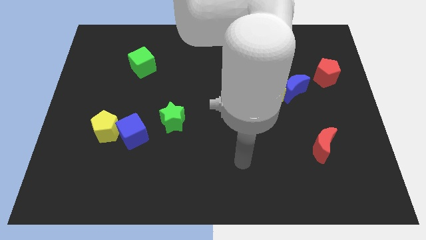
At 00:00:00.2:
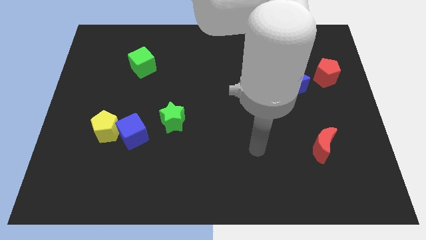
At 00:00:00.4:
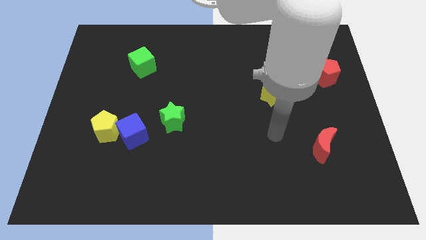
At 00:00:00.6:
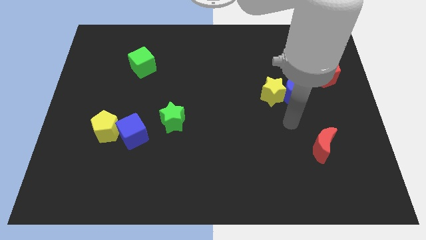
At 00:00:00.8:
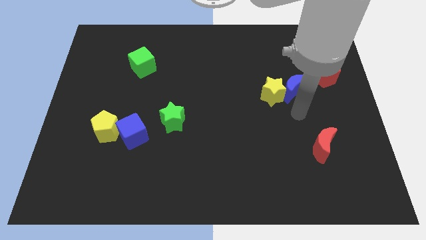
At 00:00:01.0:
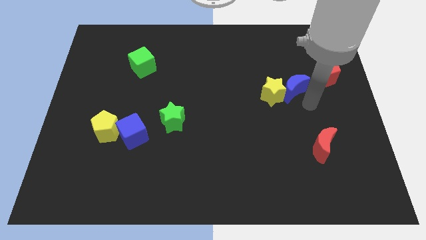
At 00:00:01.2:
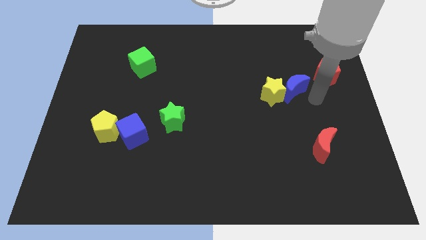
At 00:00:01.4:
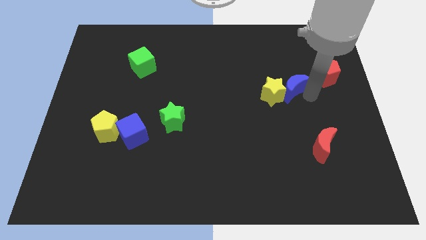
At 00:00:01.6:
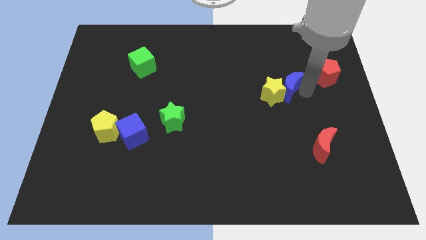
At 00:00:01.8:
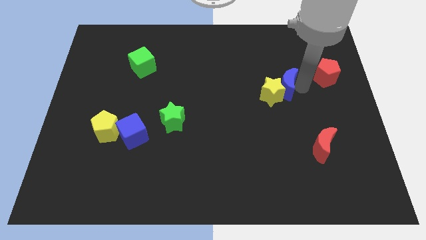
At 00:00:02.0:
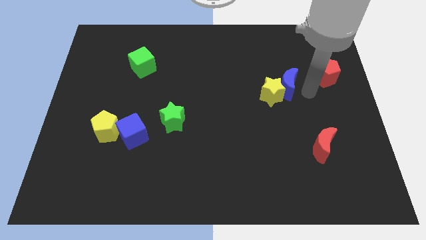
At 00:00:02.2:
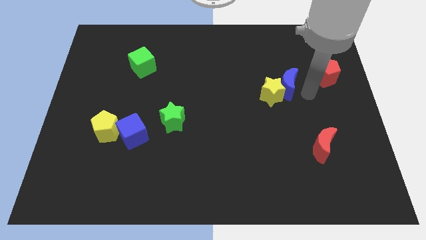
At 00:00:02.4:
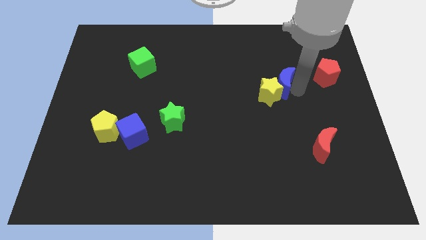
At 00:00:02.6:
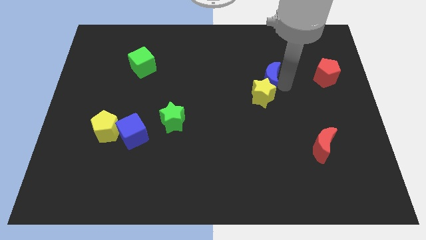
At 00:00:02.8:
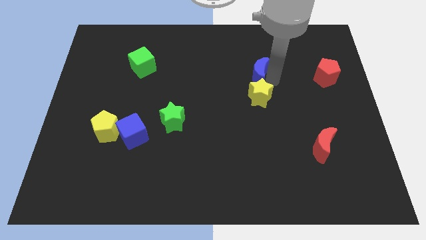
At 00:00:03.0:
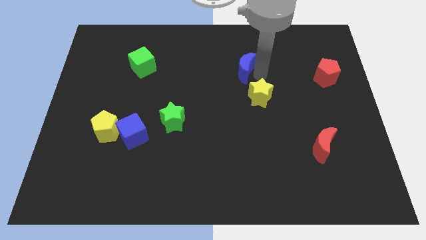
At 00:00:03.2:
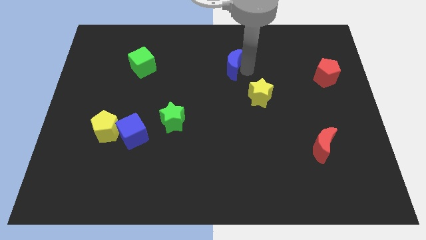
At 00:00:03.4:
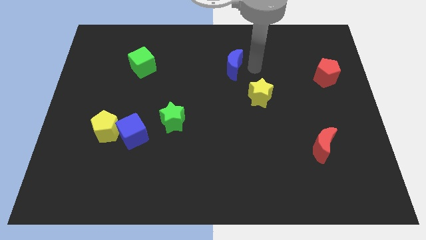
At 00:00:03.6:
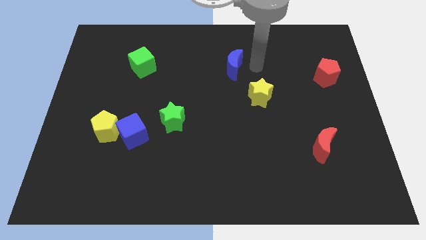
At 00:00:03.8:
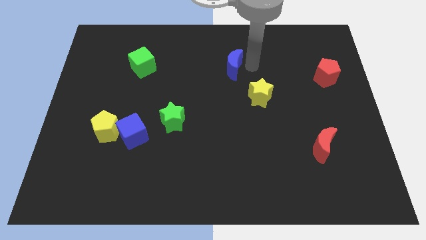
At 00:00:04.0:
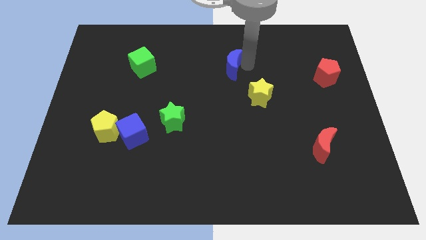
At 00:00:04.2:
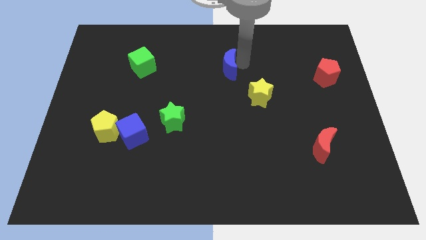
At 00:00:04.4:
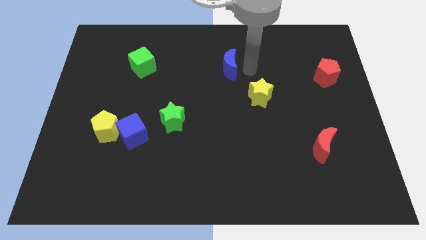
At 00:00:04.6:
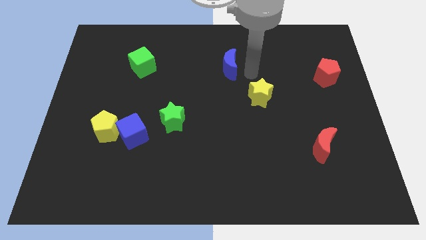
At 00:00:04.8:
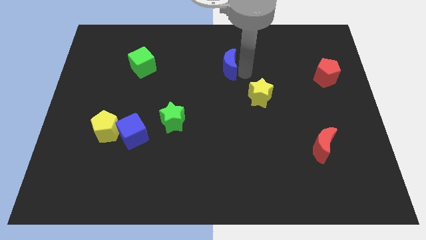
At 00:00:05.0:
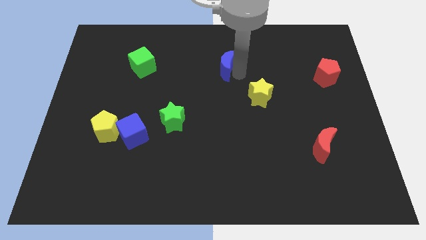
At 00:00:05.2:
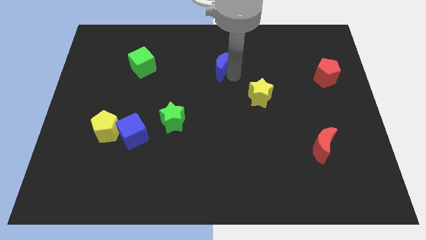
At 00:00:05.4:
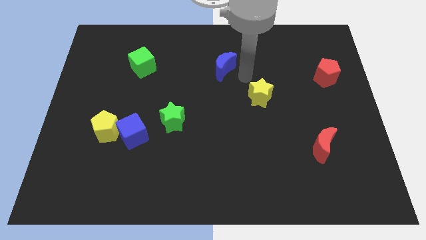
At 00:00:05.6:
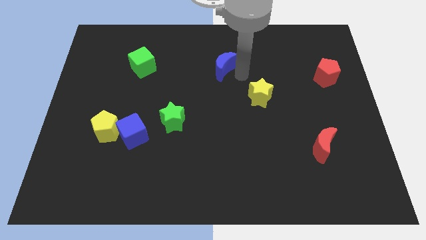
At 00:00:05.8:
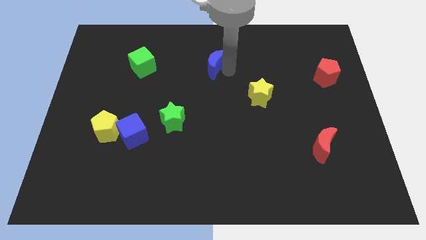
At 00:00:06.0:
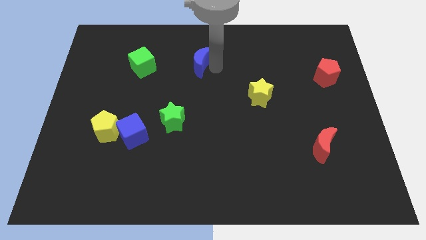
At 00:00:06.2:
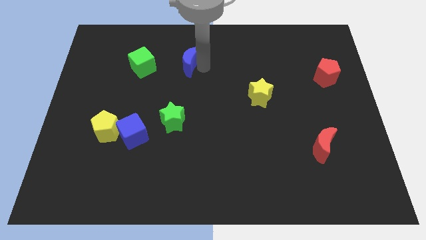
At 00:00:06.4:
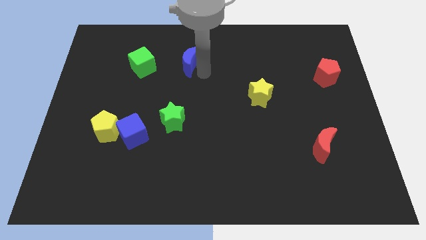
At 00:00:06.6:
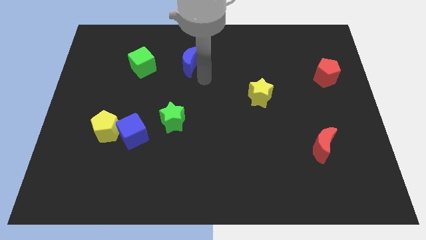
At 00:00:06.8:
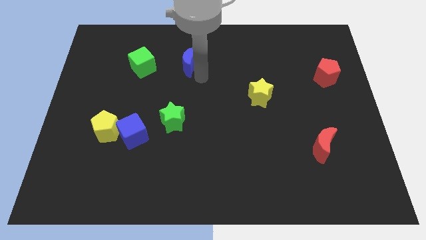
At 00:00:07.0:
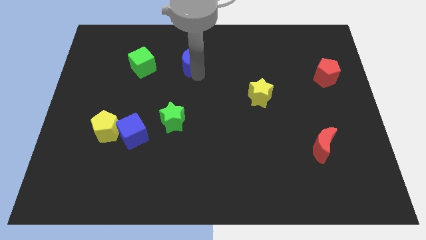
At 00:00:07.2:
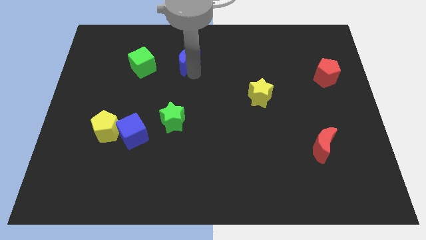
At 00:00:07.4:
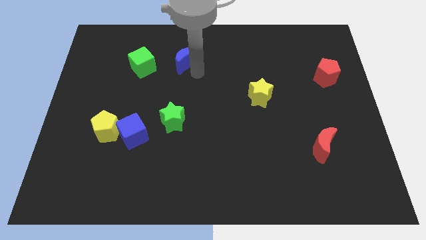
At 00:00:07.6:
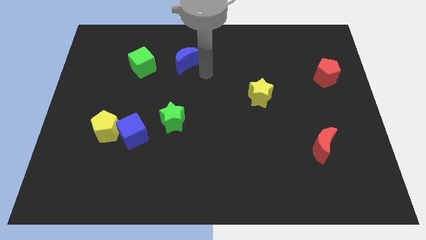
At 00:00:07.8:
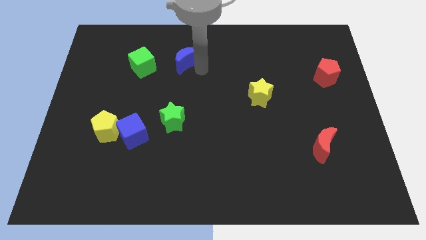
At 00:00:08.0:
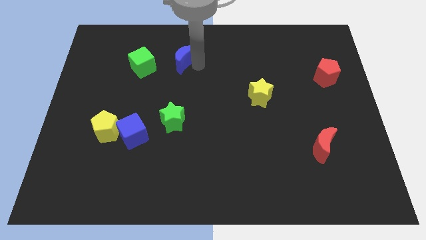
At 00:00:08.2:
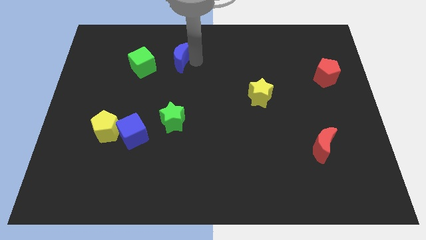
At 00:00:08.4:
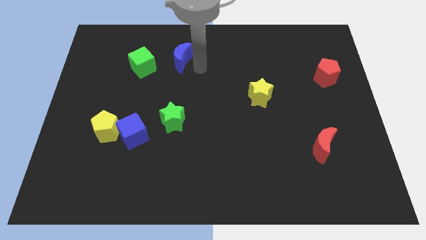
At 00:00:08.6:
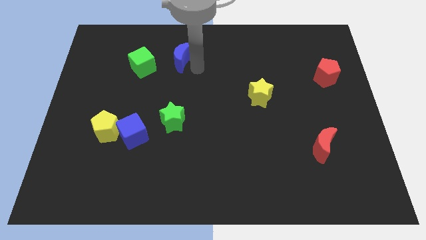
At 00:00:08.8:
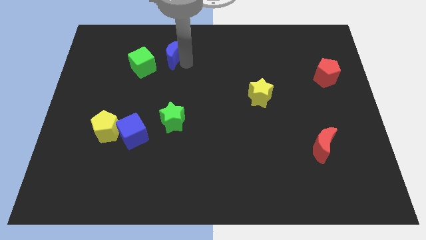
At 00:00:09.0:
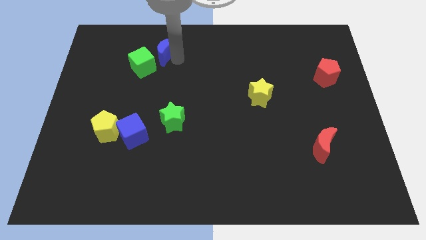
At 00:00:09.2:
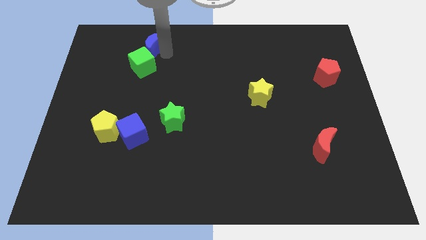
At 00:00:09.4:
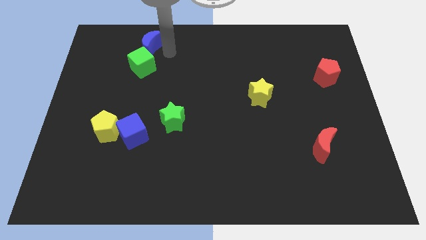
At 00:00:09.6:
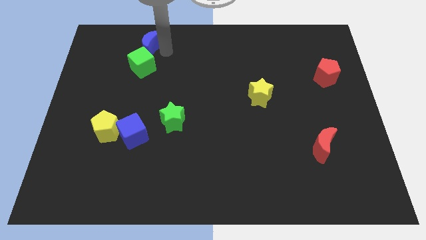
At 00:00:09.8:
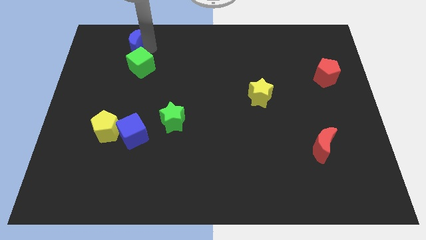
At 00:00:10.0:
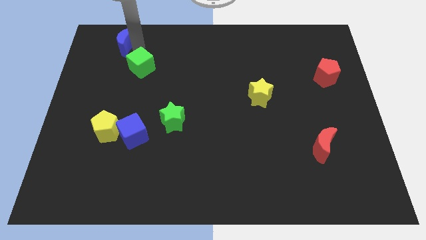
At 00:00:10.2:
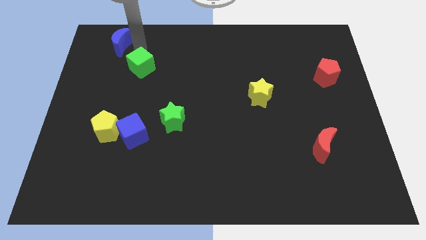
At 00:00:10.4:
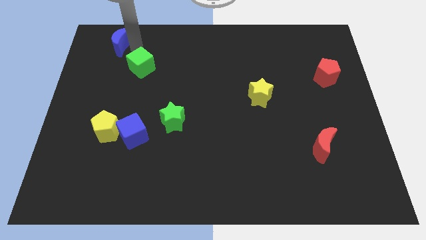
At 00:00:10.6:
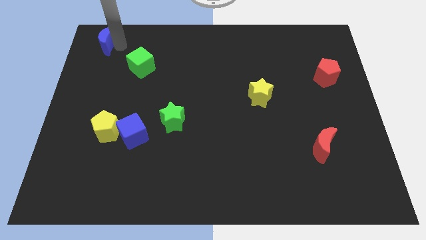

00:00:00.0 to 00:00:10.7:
put the blue moon to the top left

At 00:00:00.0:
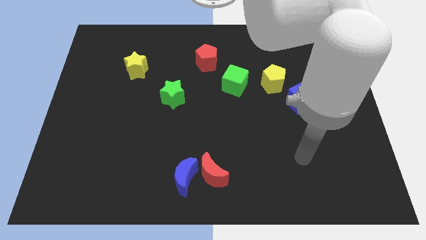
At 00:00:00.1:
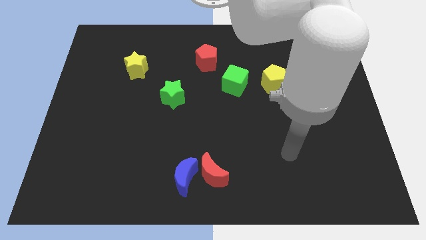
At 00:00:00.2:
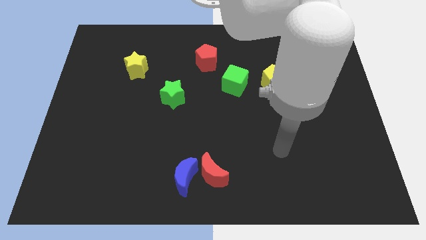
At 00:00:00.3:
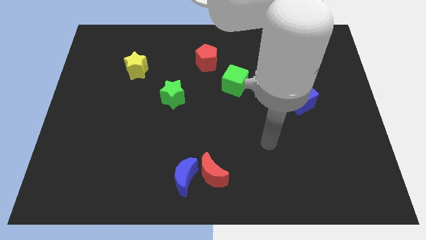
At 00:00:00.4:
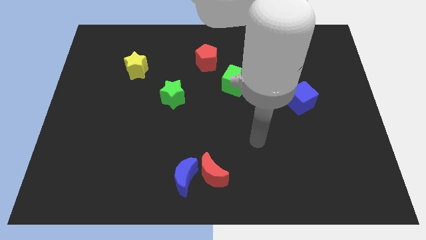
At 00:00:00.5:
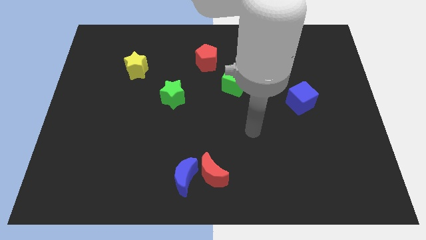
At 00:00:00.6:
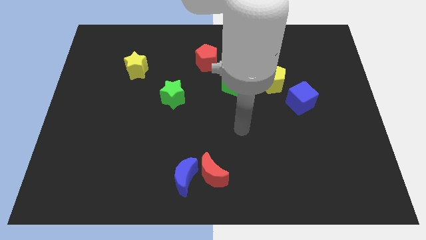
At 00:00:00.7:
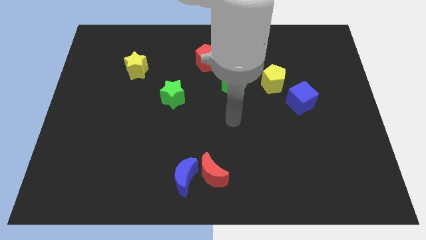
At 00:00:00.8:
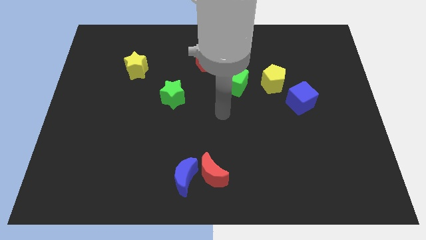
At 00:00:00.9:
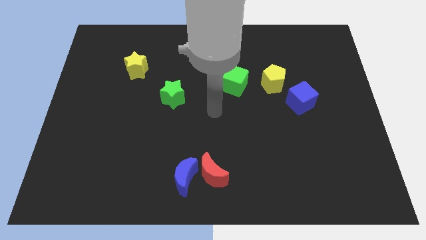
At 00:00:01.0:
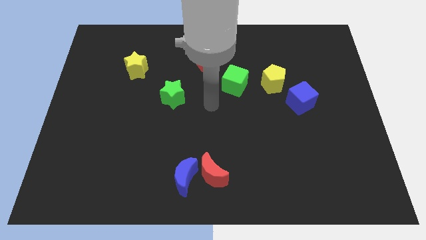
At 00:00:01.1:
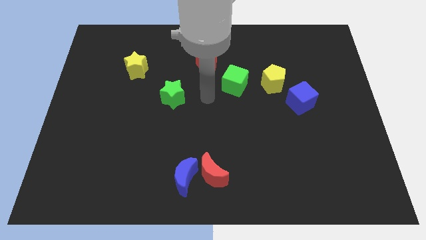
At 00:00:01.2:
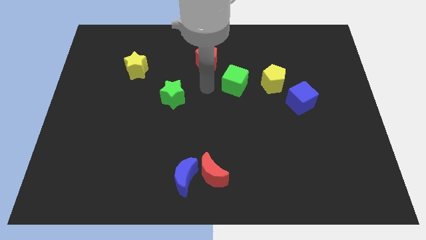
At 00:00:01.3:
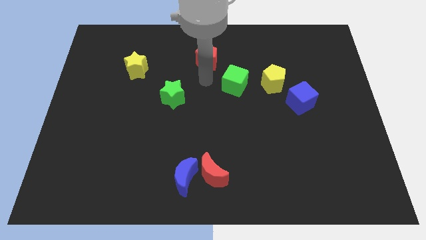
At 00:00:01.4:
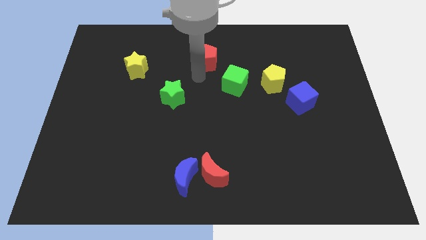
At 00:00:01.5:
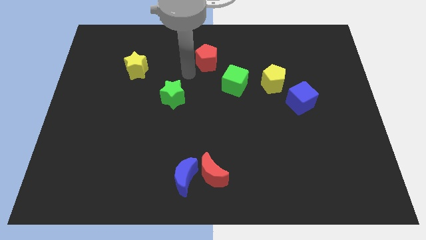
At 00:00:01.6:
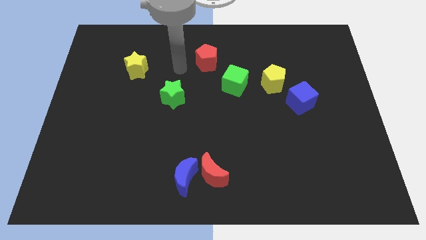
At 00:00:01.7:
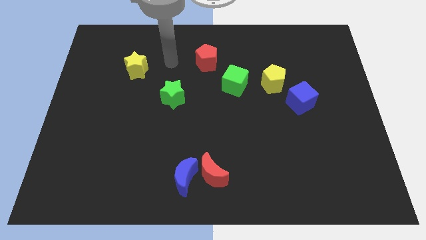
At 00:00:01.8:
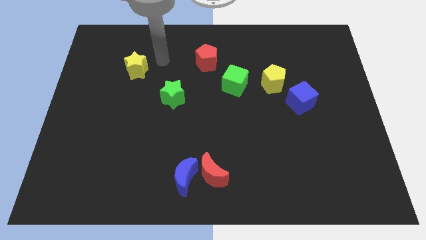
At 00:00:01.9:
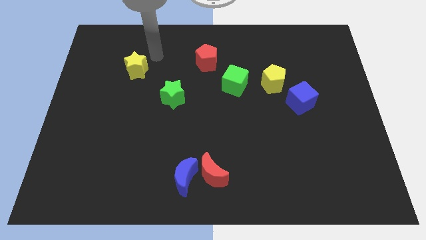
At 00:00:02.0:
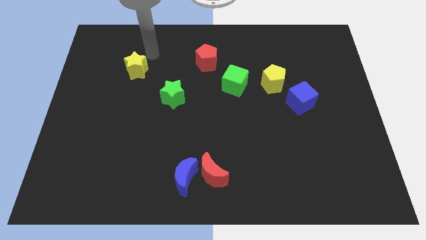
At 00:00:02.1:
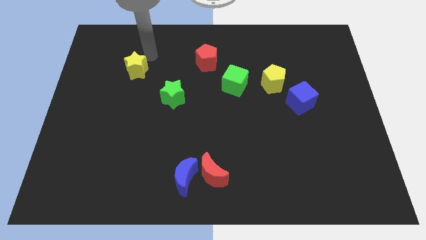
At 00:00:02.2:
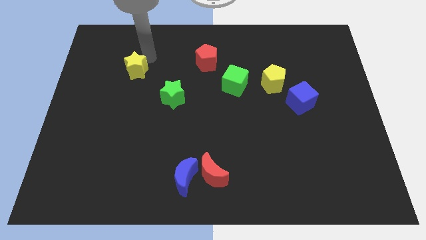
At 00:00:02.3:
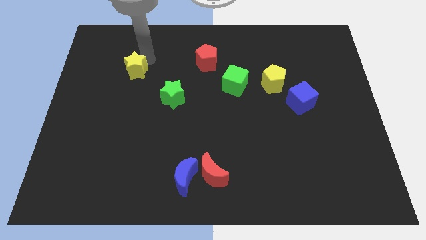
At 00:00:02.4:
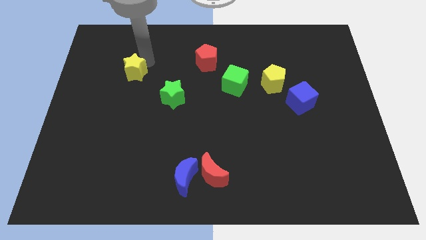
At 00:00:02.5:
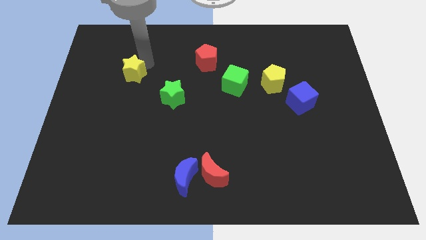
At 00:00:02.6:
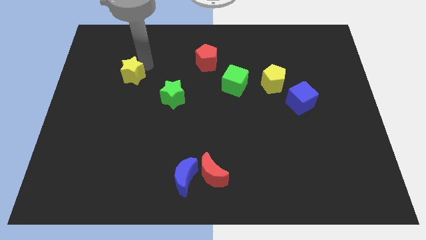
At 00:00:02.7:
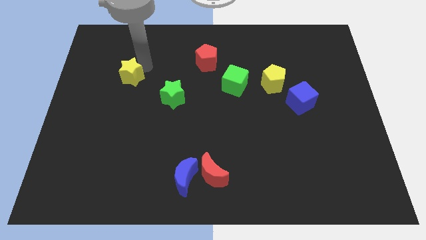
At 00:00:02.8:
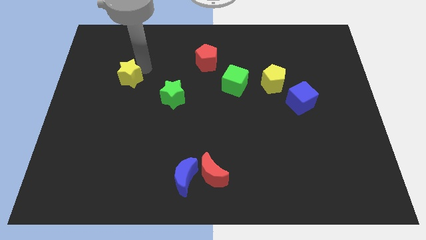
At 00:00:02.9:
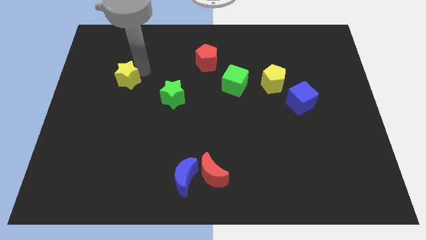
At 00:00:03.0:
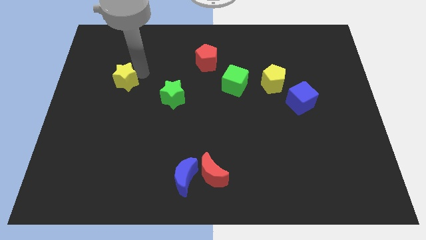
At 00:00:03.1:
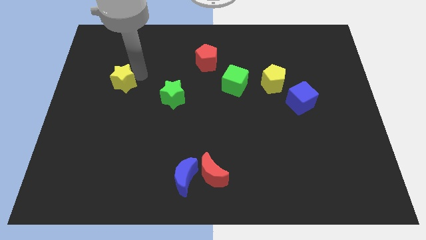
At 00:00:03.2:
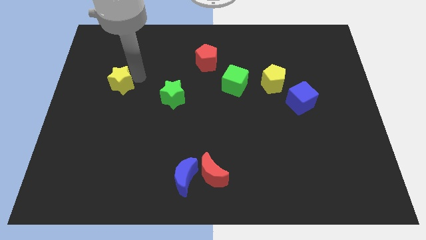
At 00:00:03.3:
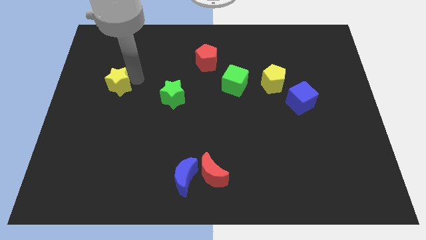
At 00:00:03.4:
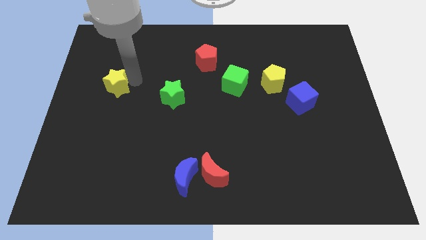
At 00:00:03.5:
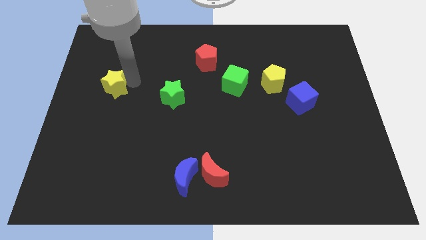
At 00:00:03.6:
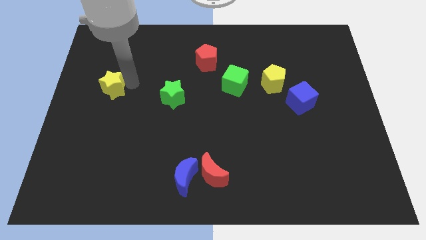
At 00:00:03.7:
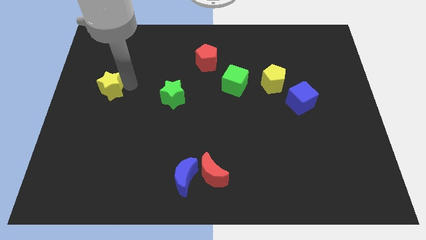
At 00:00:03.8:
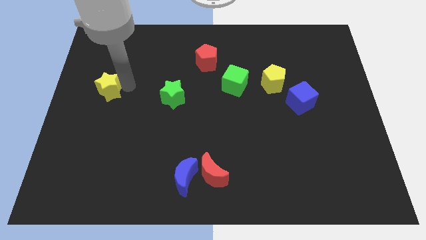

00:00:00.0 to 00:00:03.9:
put the yellow star to the left side
